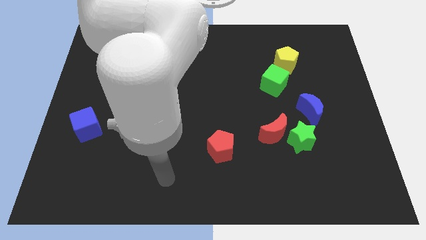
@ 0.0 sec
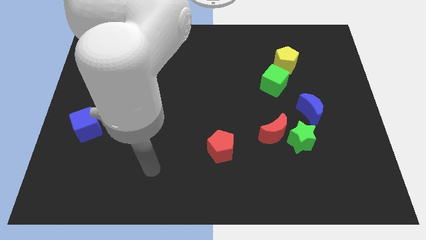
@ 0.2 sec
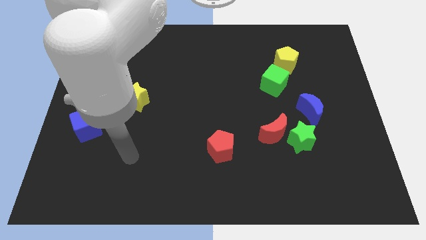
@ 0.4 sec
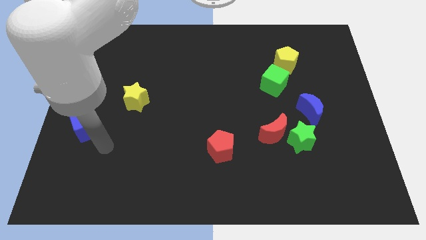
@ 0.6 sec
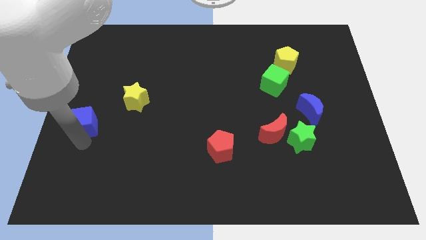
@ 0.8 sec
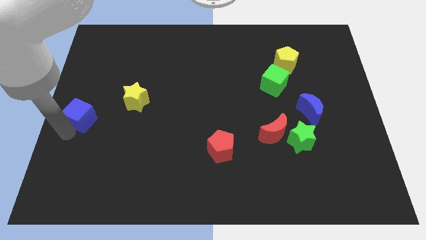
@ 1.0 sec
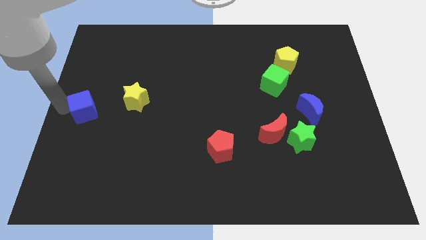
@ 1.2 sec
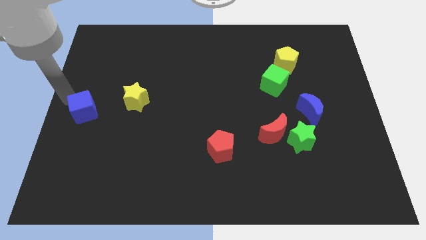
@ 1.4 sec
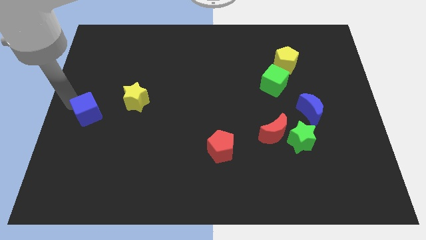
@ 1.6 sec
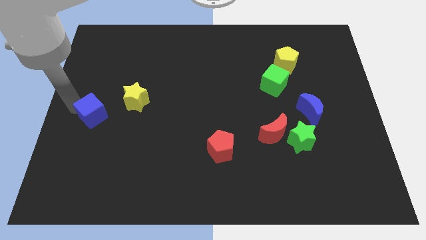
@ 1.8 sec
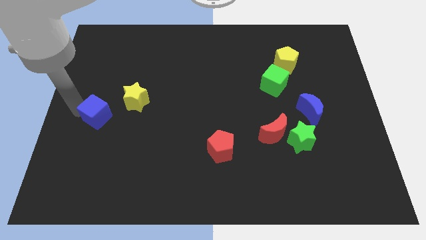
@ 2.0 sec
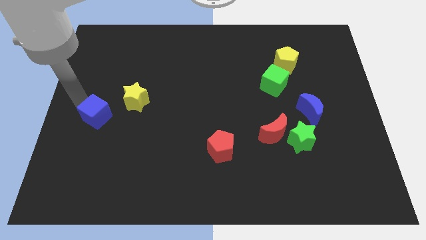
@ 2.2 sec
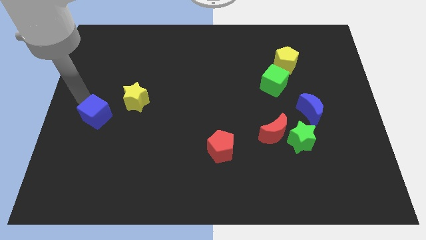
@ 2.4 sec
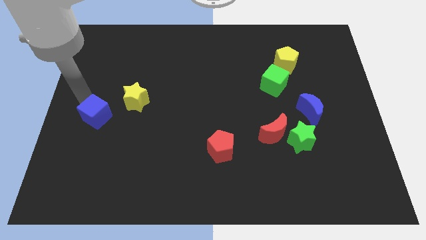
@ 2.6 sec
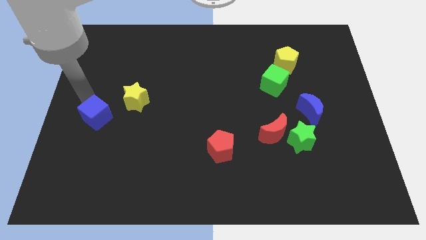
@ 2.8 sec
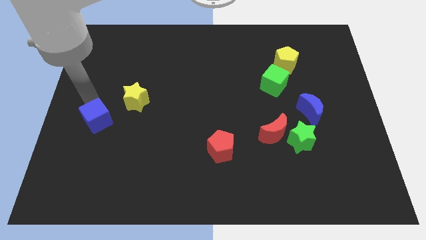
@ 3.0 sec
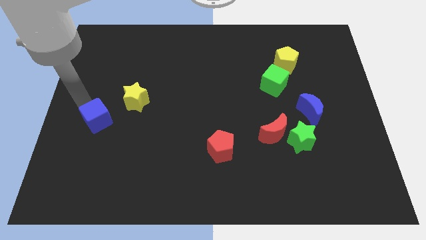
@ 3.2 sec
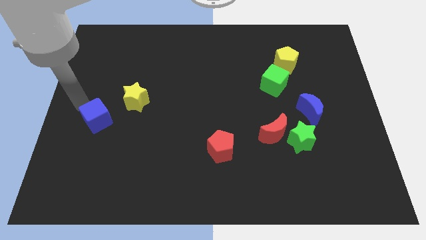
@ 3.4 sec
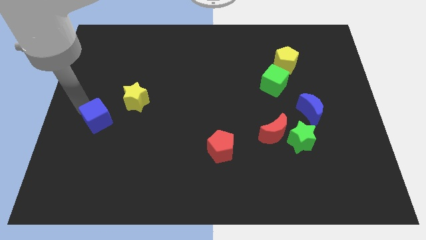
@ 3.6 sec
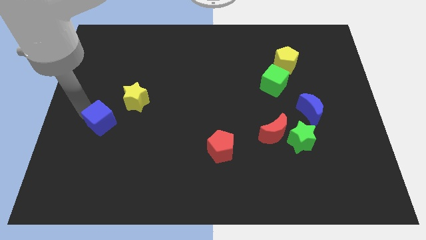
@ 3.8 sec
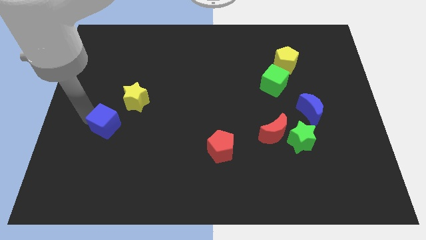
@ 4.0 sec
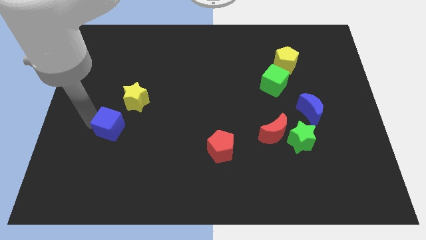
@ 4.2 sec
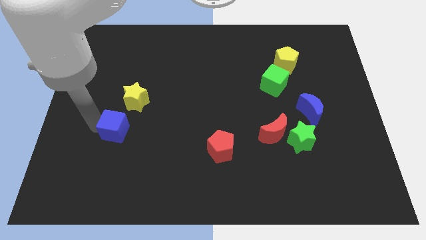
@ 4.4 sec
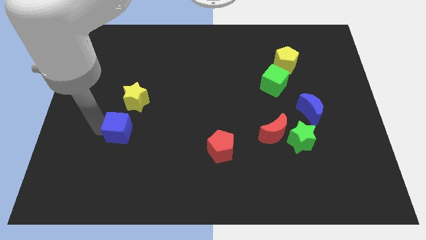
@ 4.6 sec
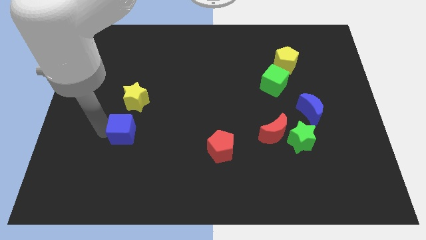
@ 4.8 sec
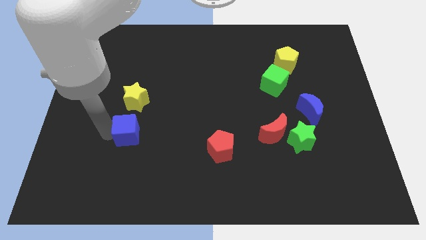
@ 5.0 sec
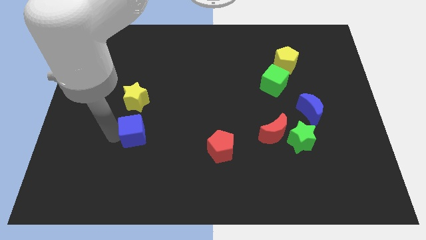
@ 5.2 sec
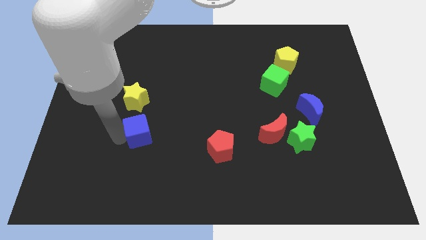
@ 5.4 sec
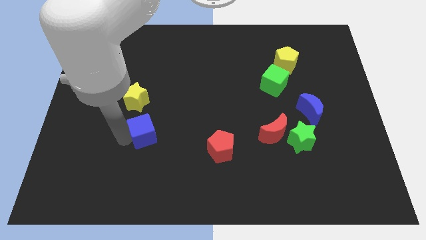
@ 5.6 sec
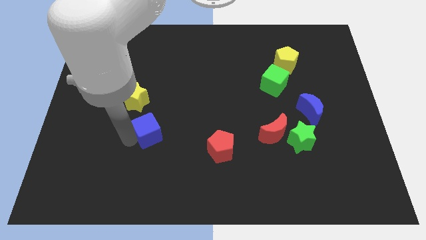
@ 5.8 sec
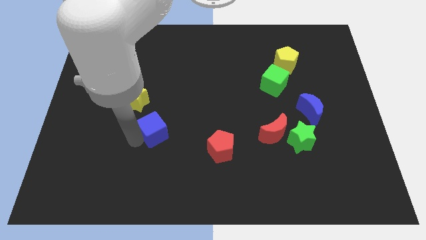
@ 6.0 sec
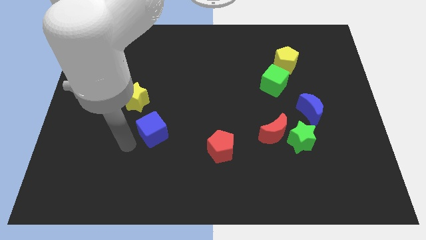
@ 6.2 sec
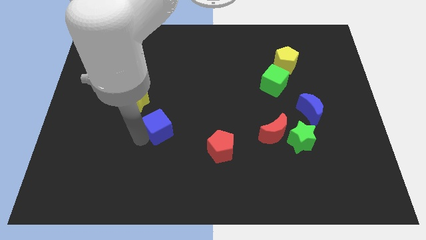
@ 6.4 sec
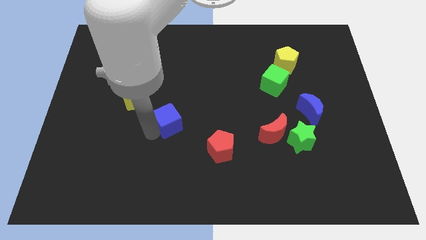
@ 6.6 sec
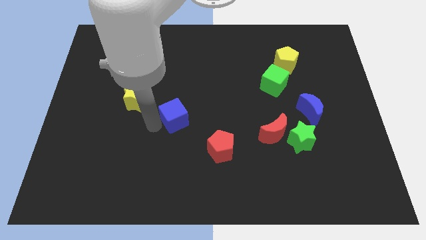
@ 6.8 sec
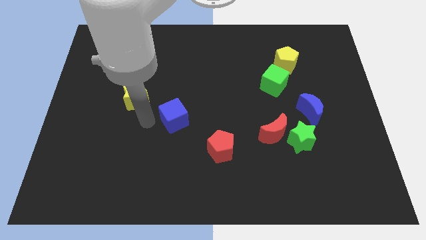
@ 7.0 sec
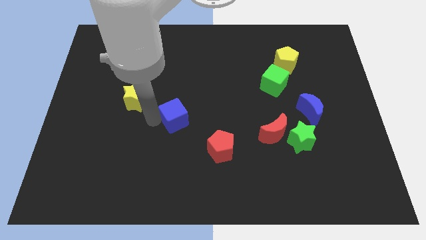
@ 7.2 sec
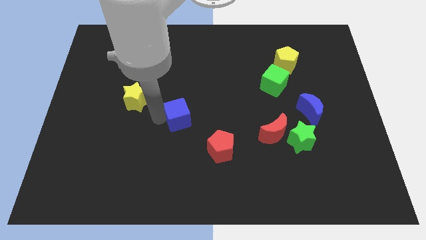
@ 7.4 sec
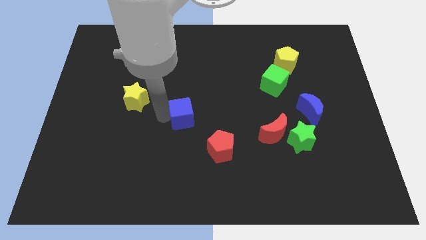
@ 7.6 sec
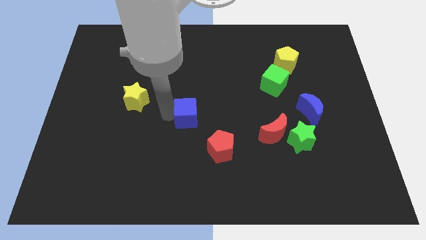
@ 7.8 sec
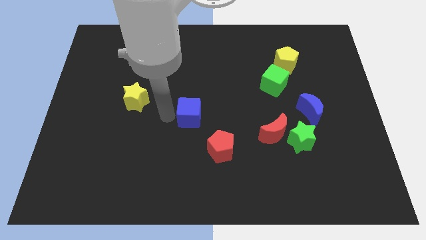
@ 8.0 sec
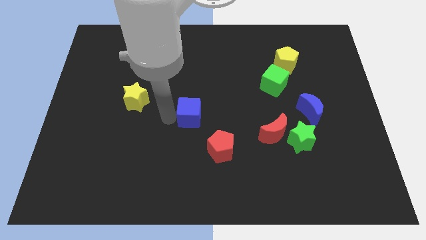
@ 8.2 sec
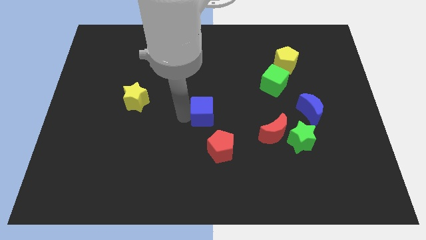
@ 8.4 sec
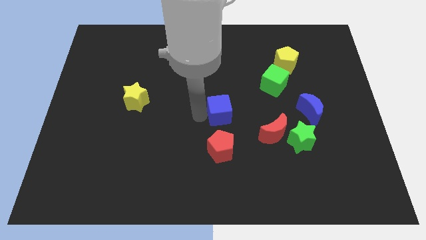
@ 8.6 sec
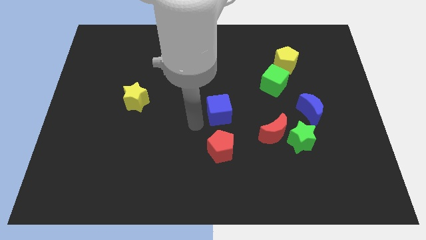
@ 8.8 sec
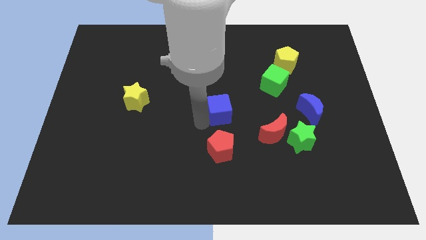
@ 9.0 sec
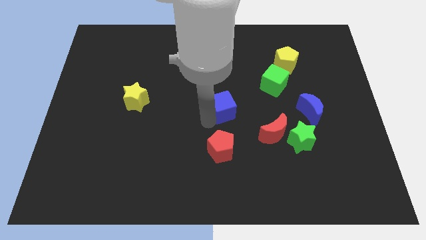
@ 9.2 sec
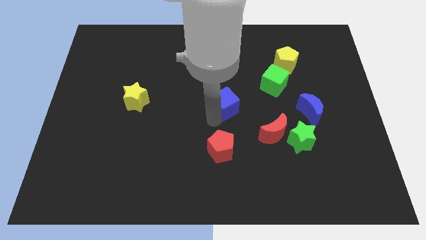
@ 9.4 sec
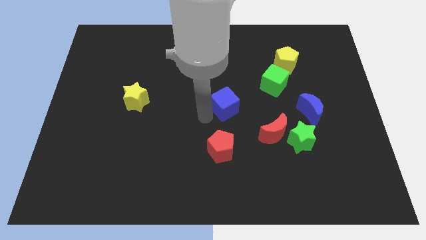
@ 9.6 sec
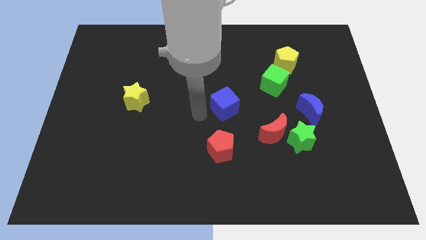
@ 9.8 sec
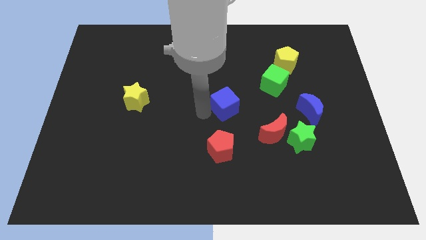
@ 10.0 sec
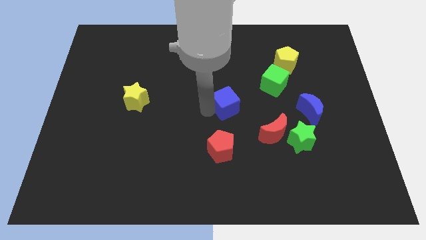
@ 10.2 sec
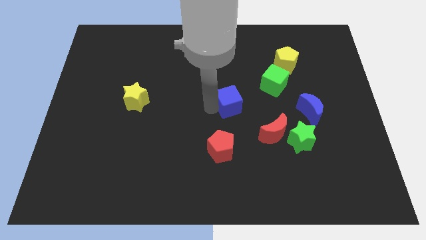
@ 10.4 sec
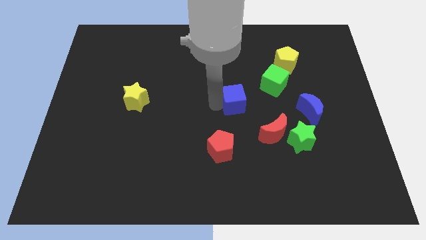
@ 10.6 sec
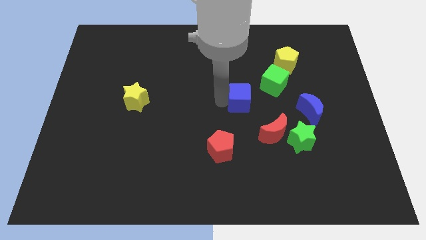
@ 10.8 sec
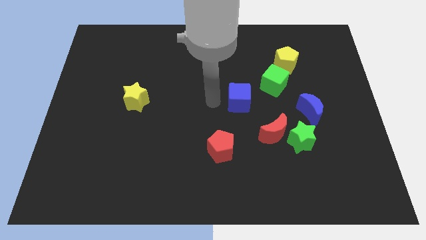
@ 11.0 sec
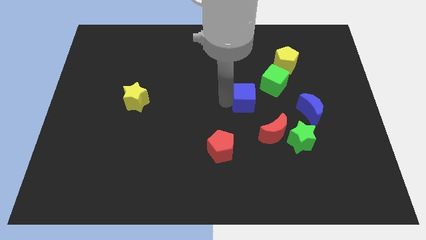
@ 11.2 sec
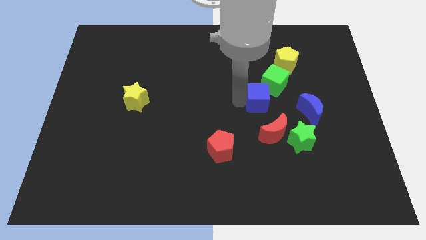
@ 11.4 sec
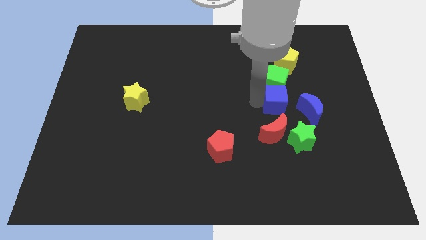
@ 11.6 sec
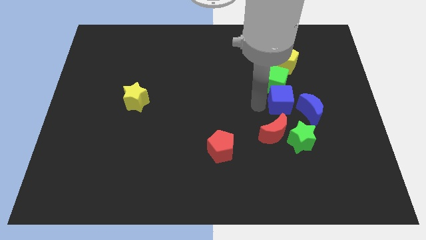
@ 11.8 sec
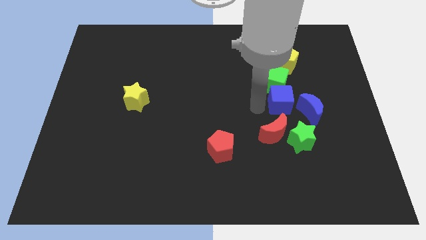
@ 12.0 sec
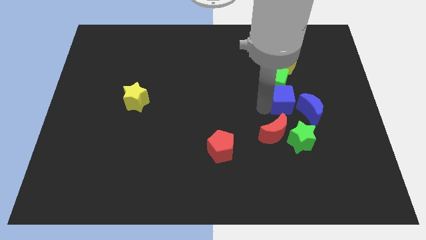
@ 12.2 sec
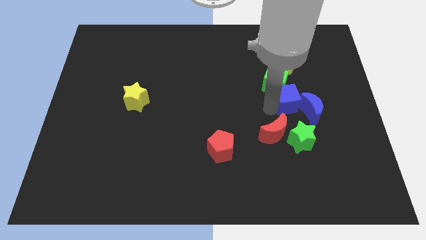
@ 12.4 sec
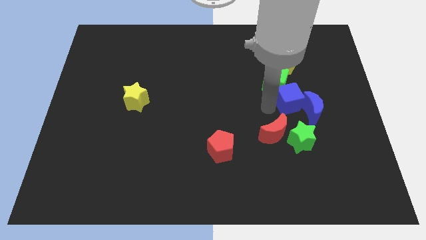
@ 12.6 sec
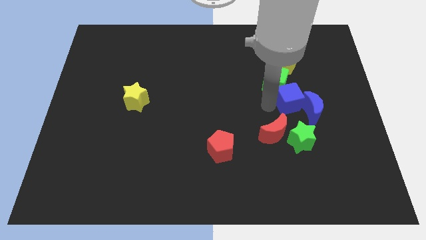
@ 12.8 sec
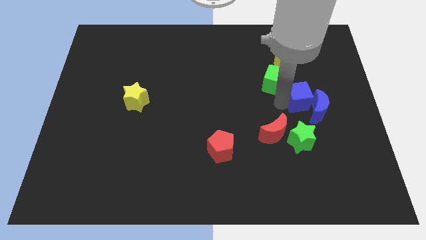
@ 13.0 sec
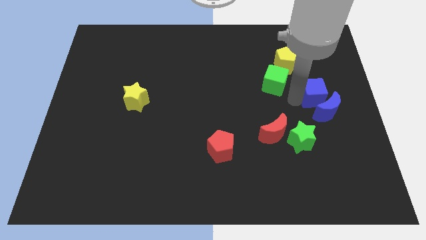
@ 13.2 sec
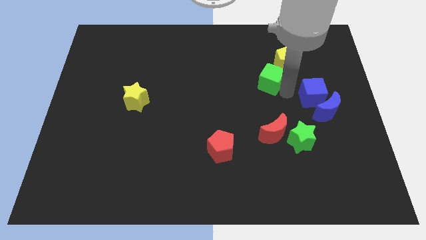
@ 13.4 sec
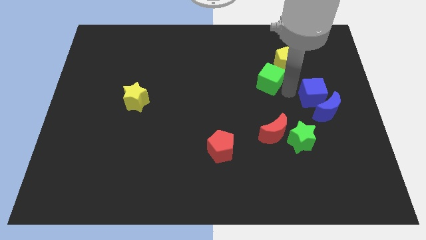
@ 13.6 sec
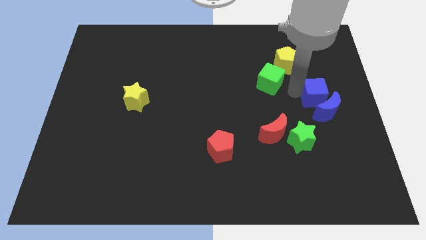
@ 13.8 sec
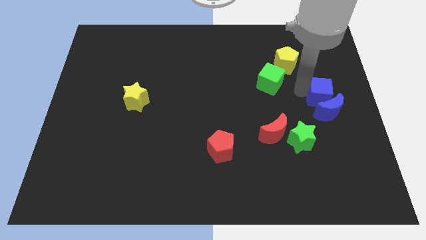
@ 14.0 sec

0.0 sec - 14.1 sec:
move the blue cube to the right side
